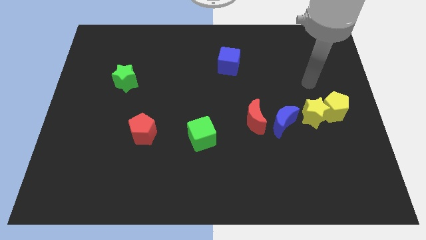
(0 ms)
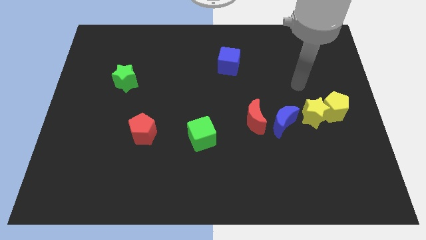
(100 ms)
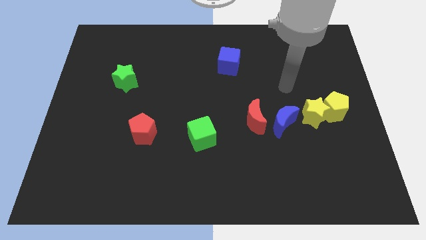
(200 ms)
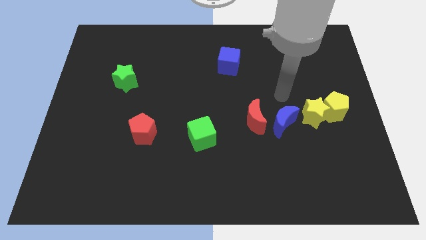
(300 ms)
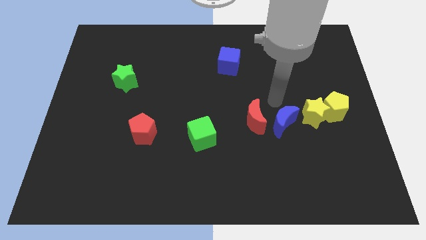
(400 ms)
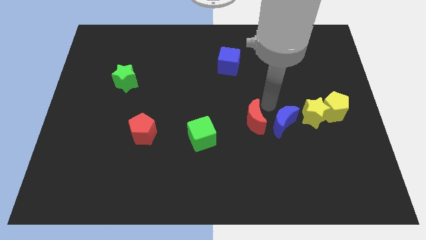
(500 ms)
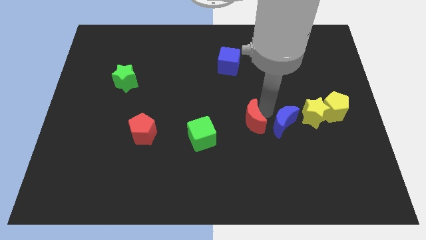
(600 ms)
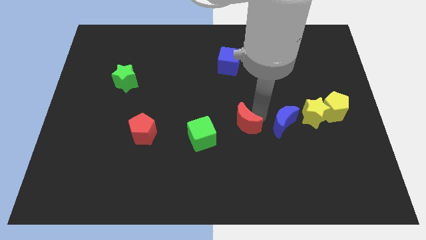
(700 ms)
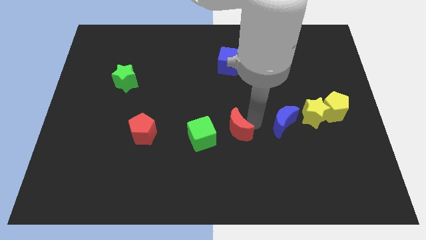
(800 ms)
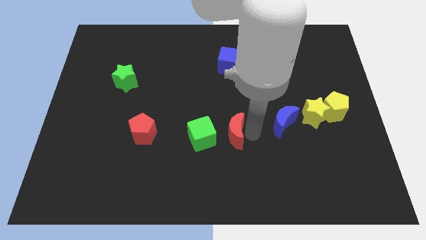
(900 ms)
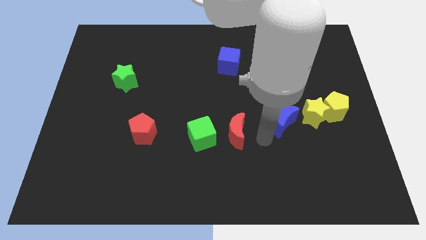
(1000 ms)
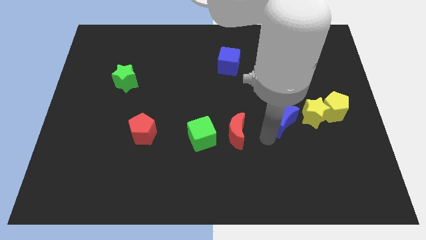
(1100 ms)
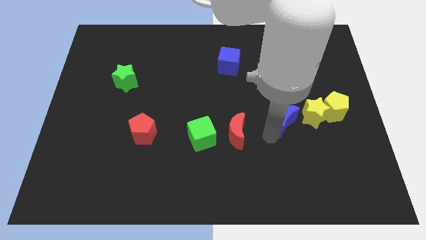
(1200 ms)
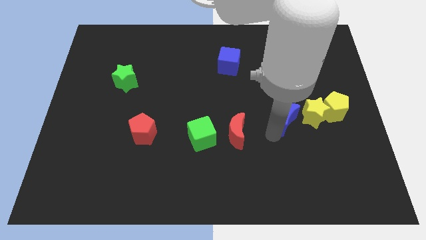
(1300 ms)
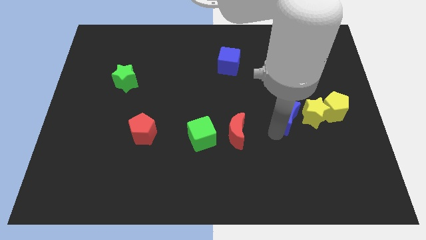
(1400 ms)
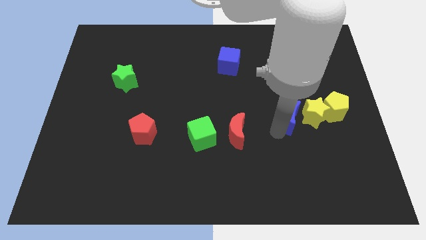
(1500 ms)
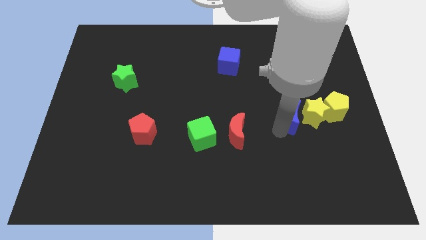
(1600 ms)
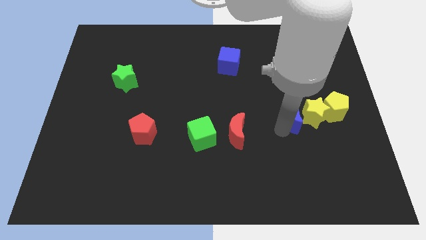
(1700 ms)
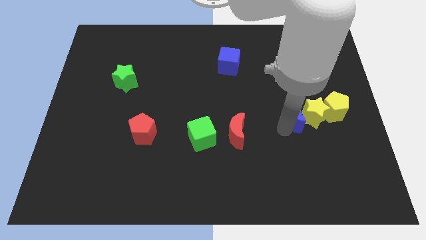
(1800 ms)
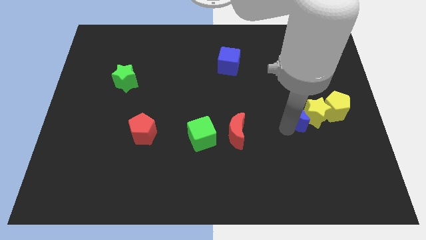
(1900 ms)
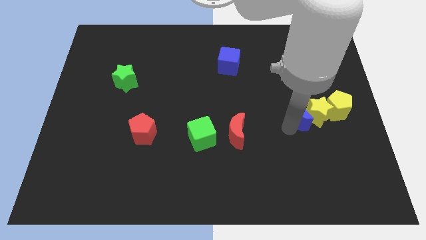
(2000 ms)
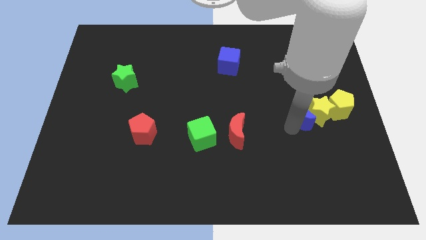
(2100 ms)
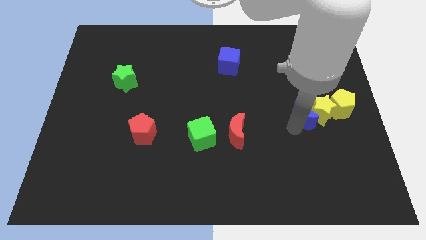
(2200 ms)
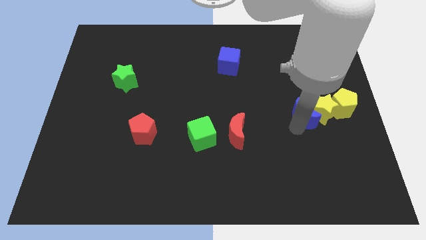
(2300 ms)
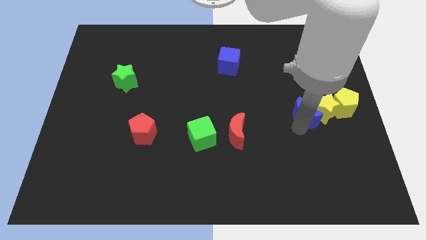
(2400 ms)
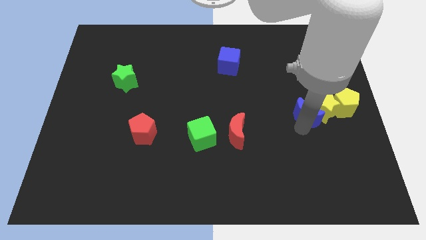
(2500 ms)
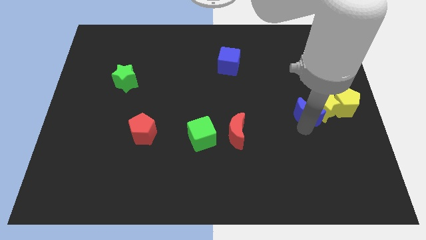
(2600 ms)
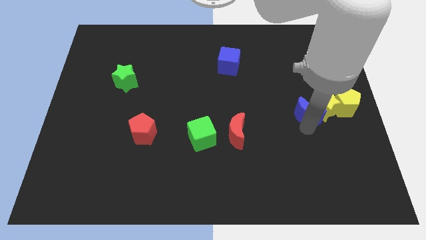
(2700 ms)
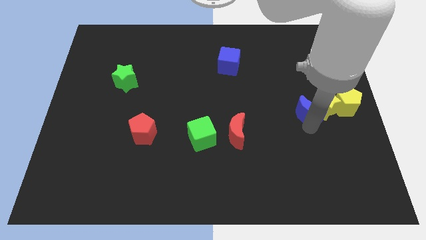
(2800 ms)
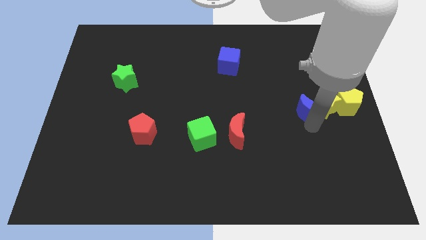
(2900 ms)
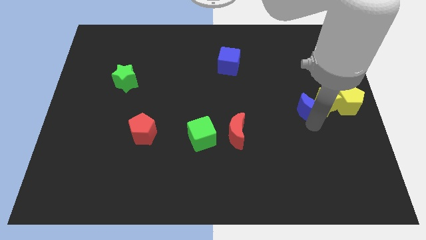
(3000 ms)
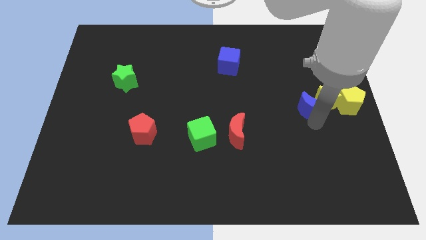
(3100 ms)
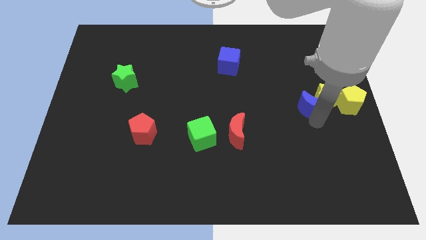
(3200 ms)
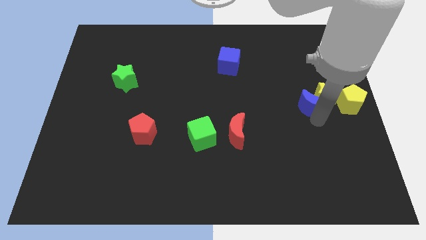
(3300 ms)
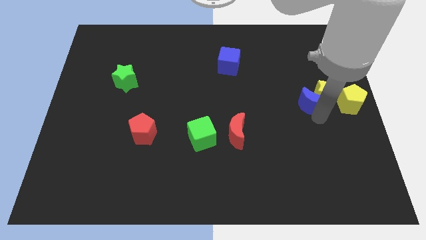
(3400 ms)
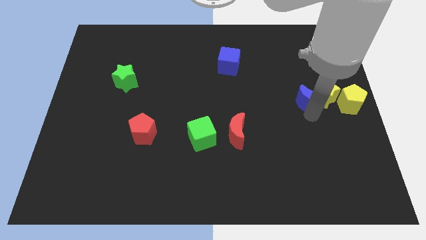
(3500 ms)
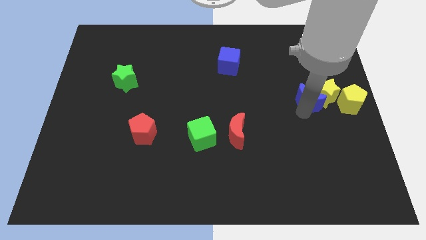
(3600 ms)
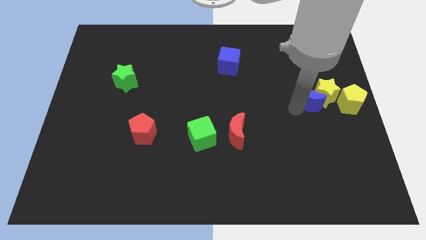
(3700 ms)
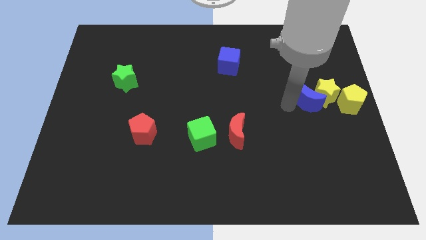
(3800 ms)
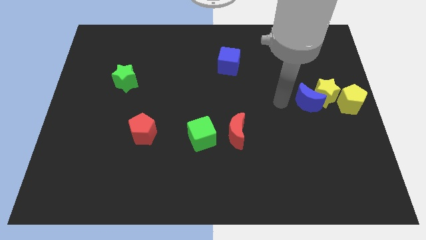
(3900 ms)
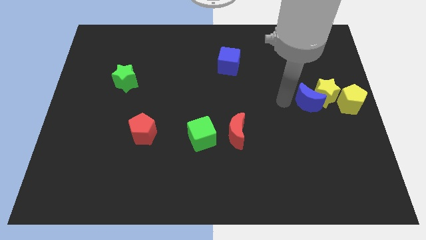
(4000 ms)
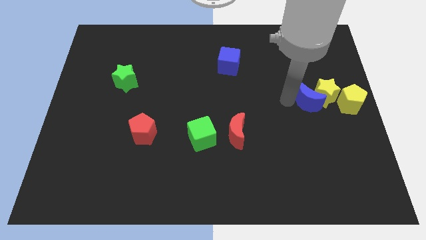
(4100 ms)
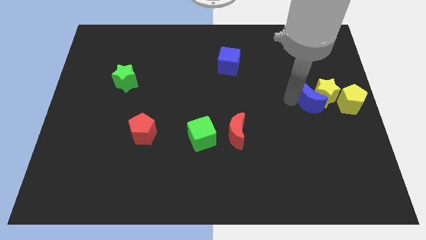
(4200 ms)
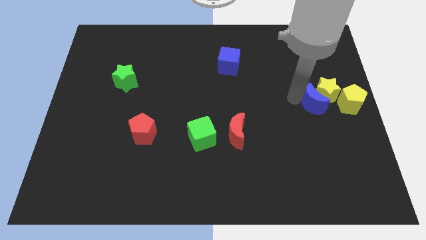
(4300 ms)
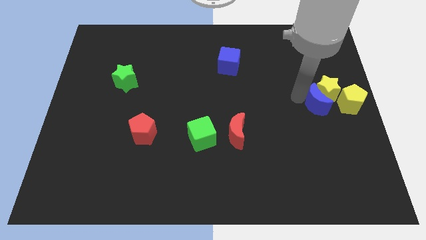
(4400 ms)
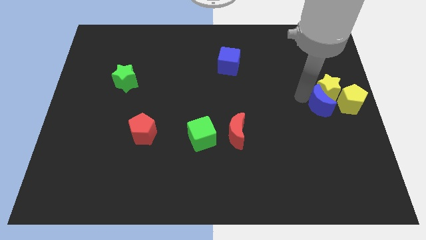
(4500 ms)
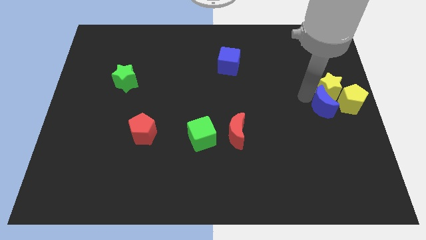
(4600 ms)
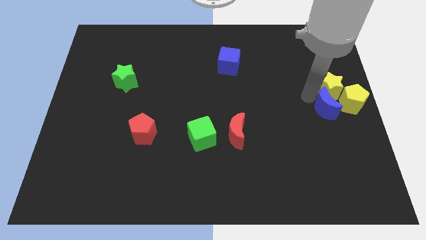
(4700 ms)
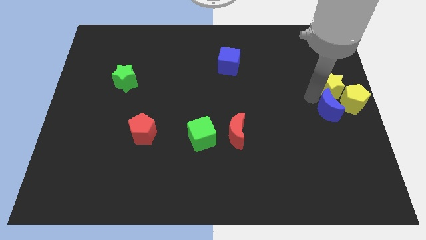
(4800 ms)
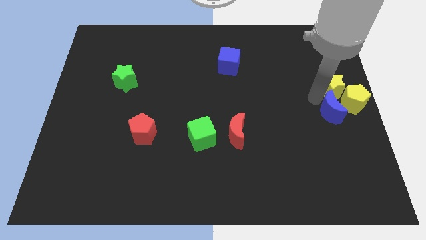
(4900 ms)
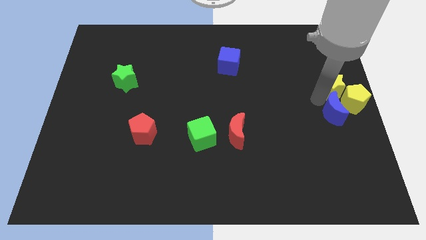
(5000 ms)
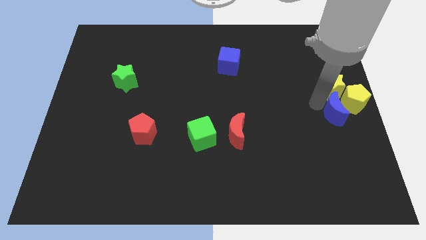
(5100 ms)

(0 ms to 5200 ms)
slide the blue moon next to the yellow pentagon

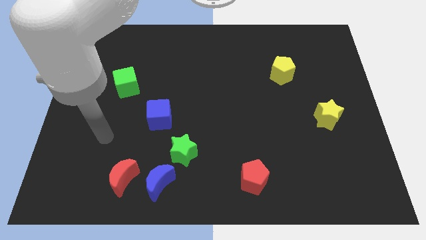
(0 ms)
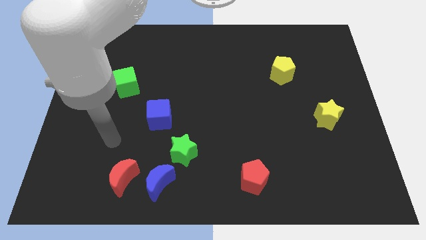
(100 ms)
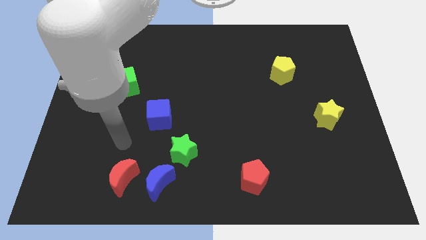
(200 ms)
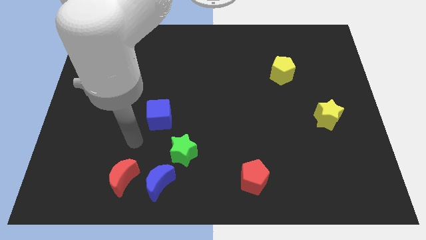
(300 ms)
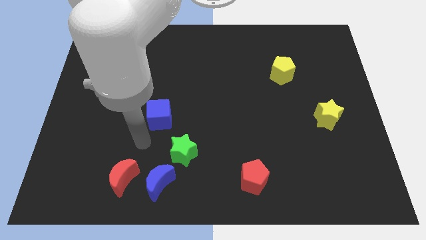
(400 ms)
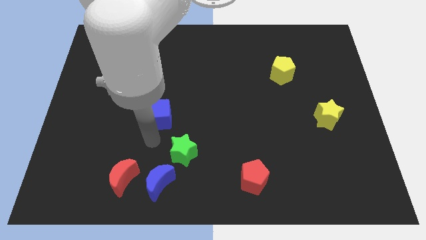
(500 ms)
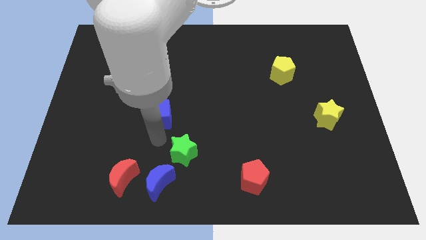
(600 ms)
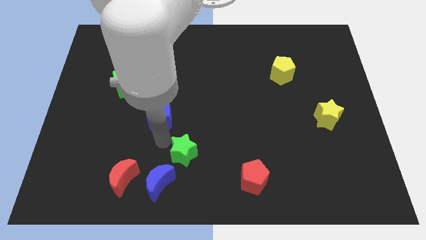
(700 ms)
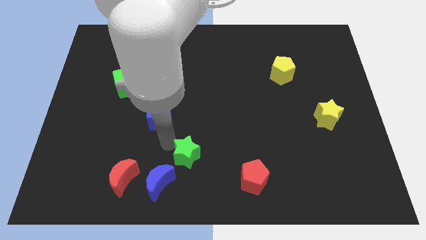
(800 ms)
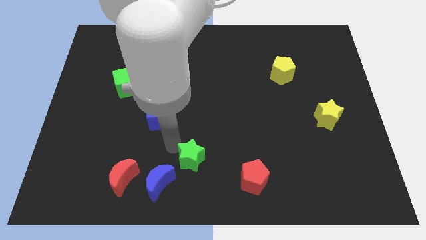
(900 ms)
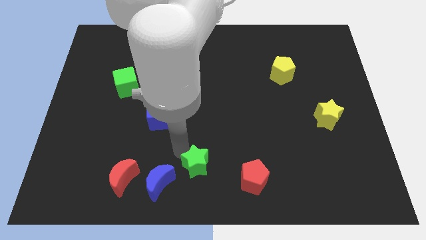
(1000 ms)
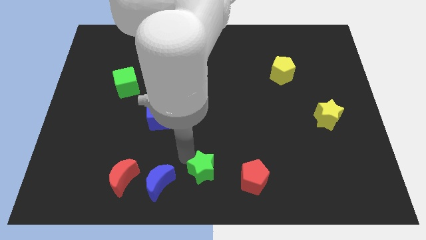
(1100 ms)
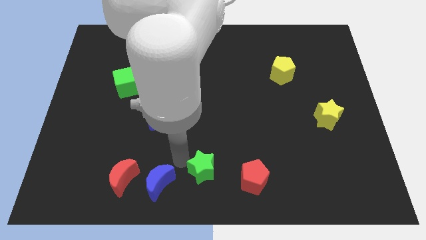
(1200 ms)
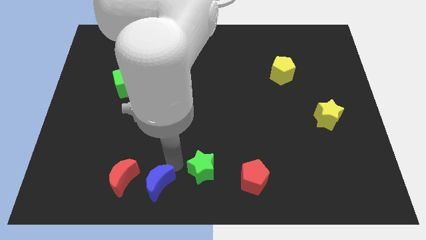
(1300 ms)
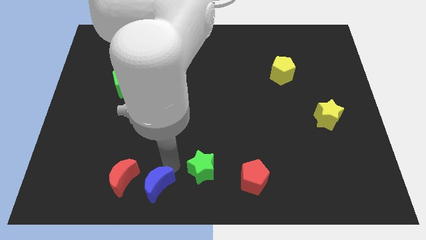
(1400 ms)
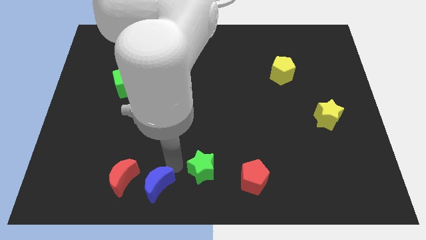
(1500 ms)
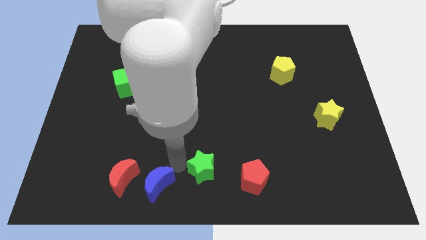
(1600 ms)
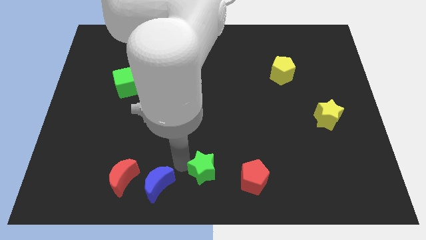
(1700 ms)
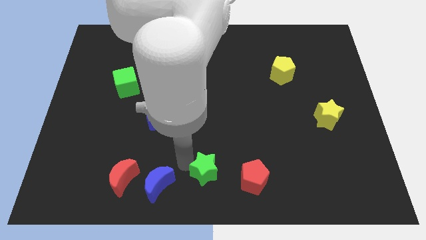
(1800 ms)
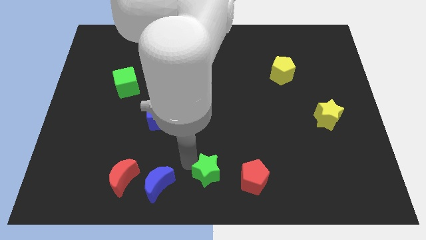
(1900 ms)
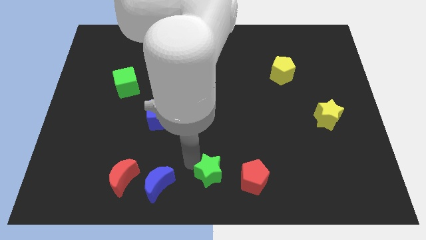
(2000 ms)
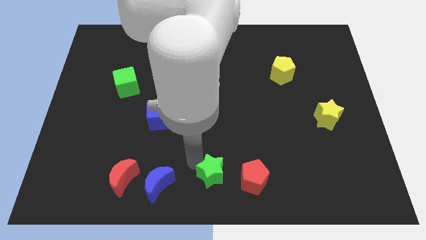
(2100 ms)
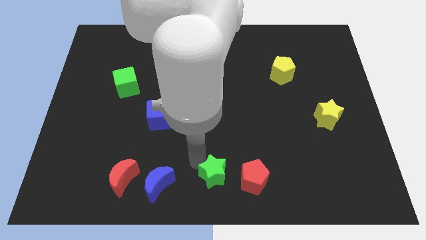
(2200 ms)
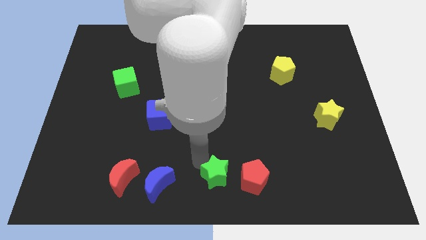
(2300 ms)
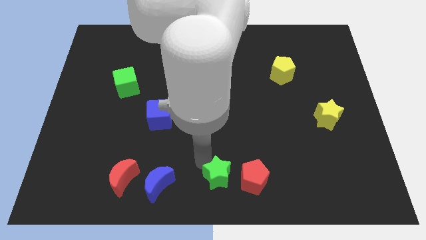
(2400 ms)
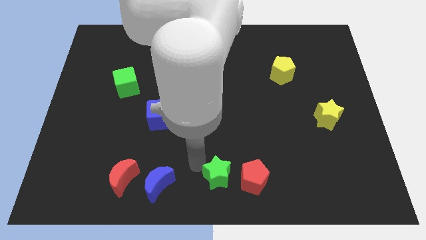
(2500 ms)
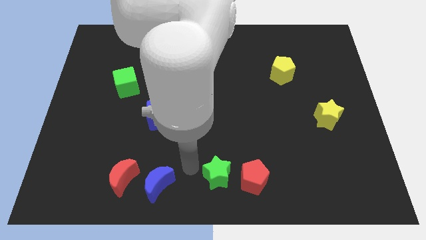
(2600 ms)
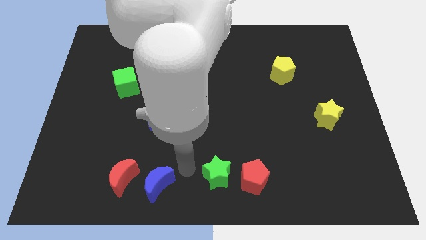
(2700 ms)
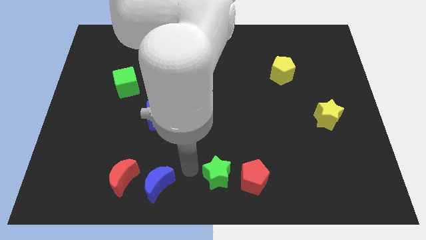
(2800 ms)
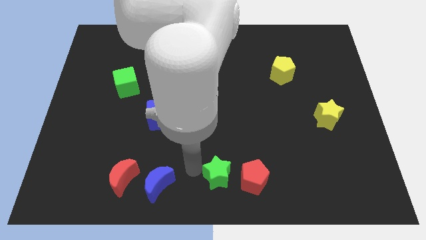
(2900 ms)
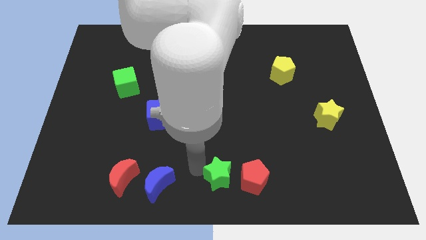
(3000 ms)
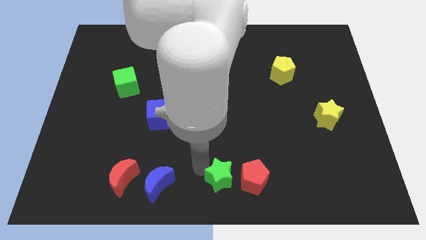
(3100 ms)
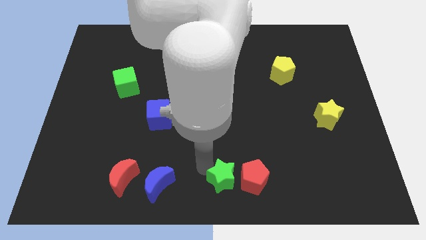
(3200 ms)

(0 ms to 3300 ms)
put the green star towards the red pentagon
